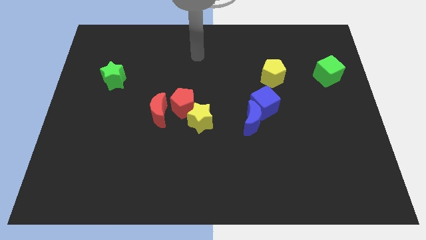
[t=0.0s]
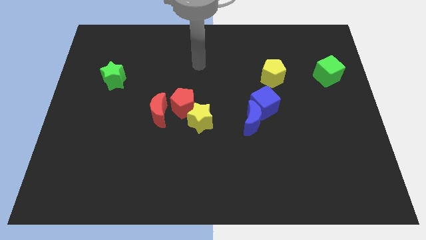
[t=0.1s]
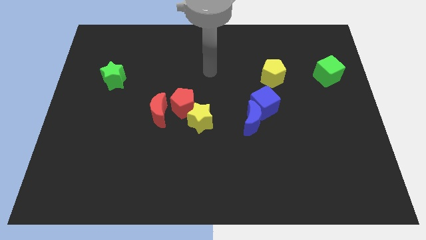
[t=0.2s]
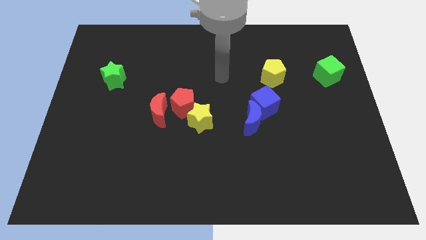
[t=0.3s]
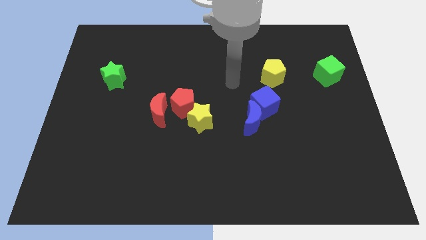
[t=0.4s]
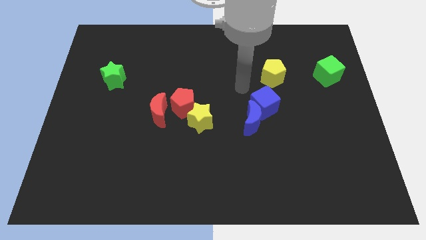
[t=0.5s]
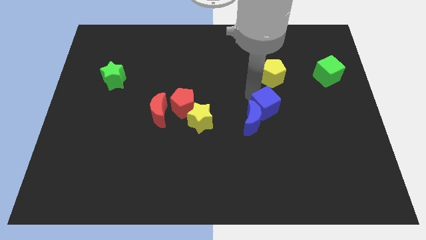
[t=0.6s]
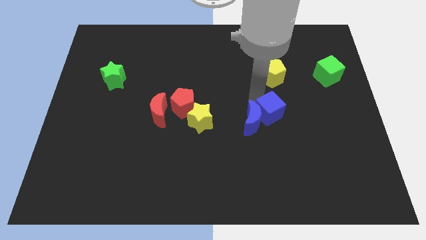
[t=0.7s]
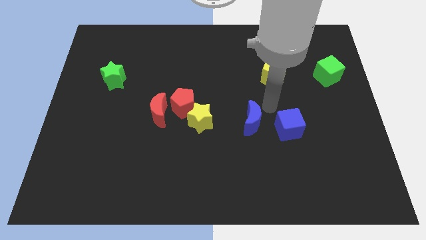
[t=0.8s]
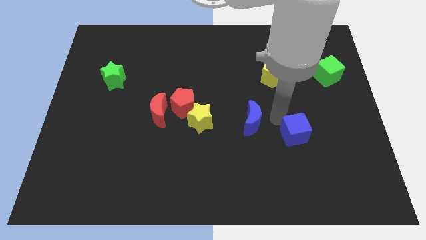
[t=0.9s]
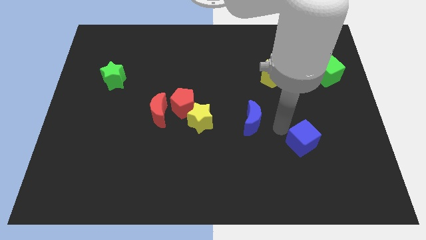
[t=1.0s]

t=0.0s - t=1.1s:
pull the blue moon apart from the blue cube

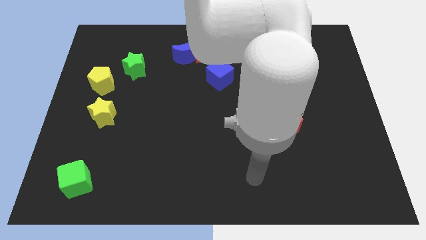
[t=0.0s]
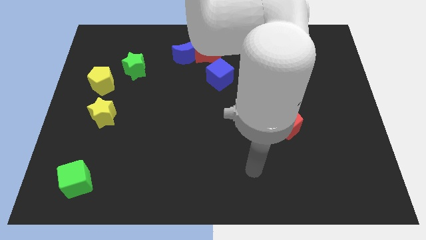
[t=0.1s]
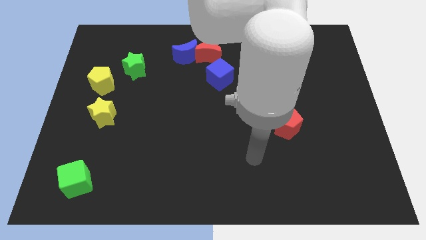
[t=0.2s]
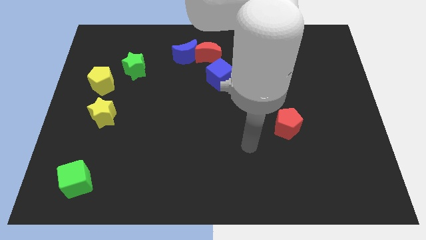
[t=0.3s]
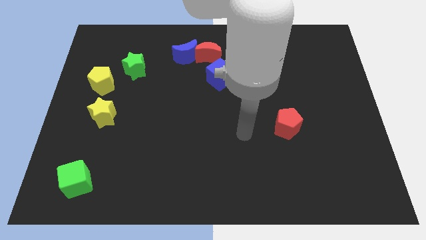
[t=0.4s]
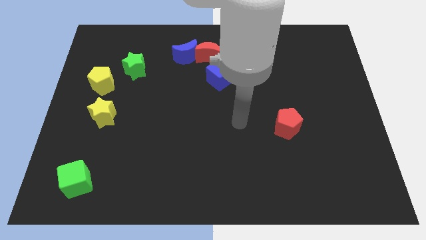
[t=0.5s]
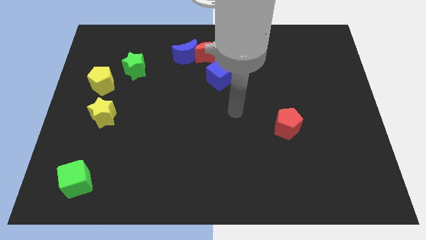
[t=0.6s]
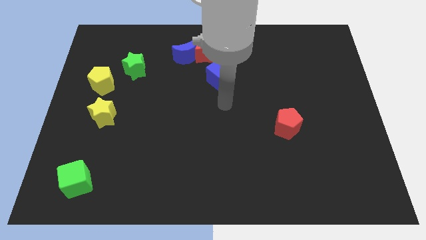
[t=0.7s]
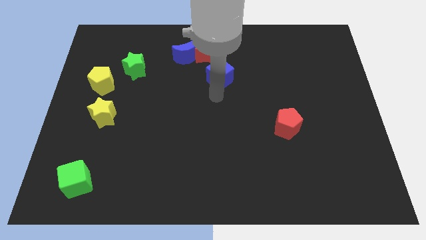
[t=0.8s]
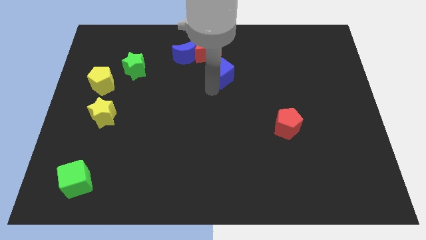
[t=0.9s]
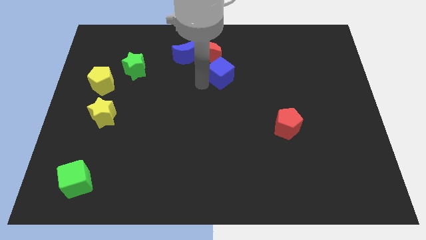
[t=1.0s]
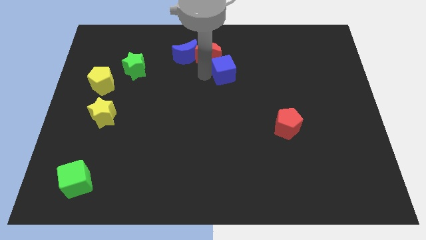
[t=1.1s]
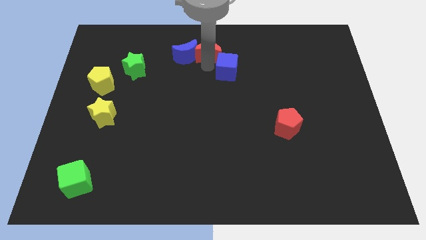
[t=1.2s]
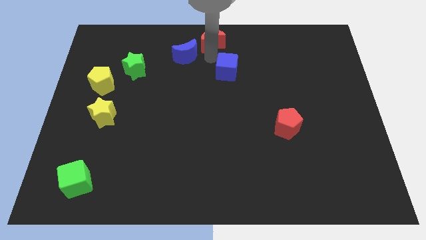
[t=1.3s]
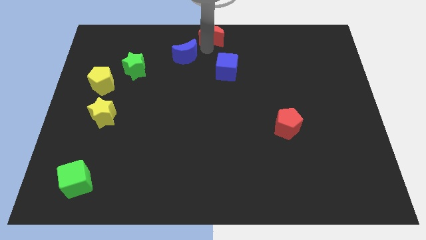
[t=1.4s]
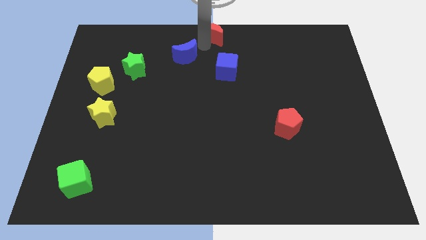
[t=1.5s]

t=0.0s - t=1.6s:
separate the blue moon from the red moon

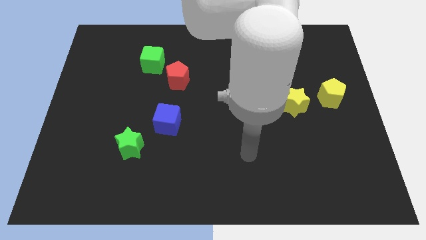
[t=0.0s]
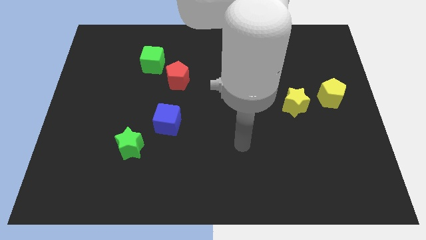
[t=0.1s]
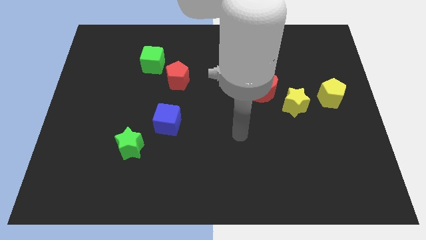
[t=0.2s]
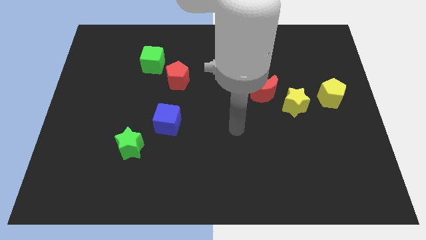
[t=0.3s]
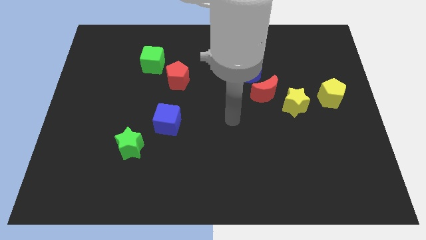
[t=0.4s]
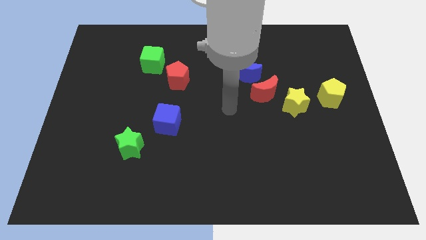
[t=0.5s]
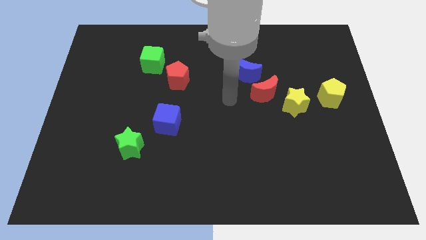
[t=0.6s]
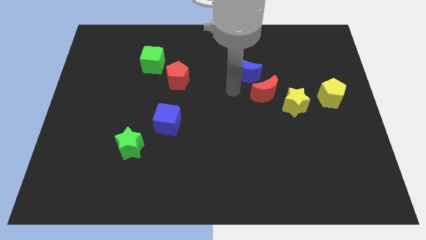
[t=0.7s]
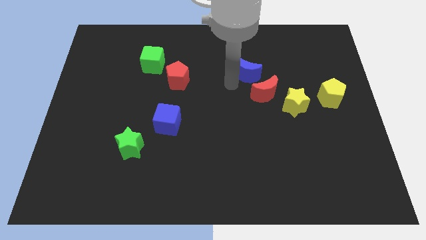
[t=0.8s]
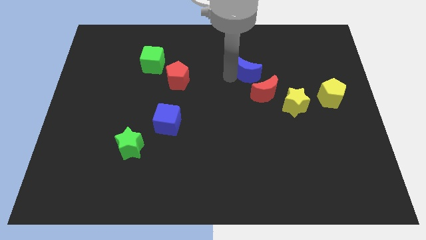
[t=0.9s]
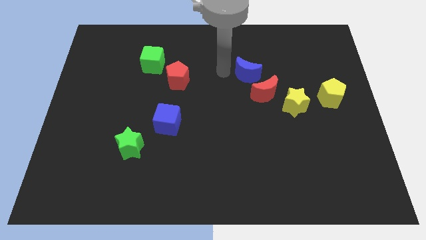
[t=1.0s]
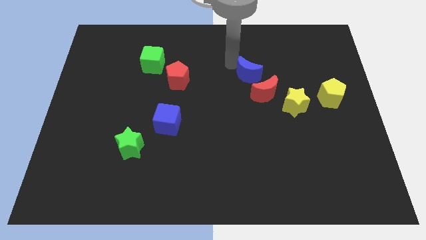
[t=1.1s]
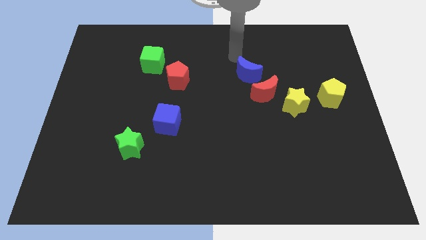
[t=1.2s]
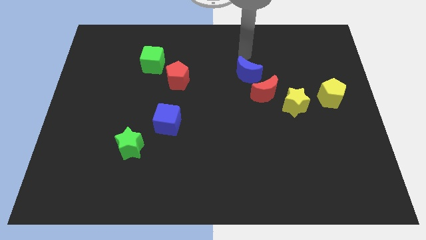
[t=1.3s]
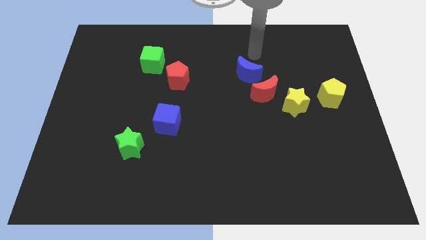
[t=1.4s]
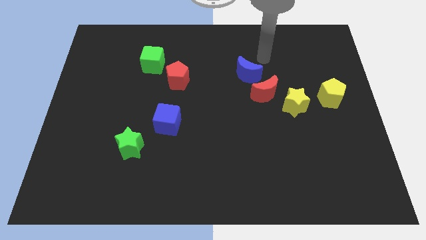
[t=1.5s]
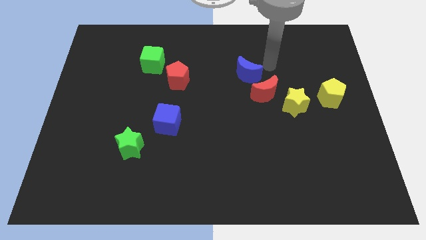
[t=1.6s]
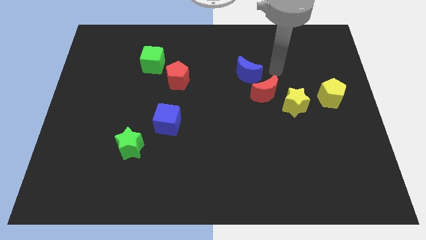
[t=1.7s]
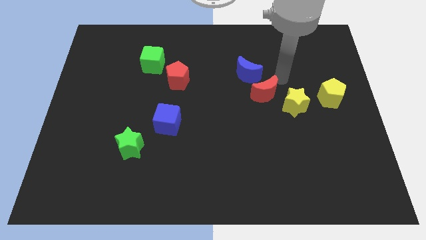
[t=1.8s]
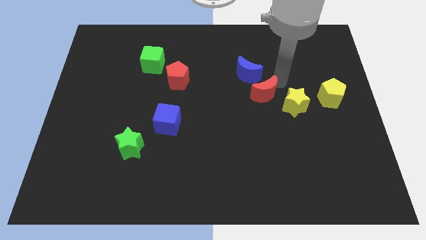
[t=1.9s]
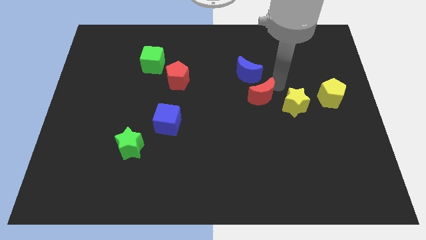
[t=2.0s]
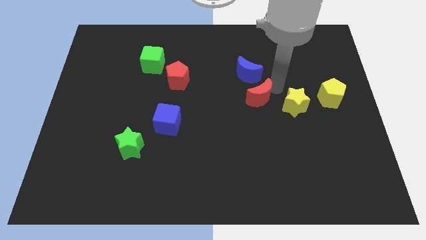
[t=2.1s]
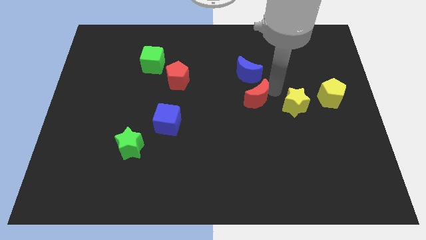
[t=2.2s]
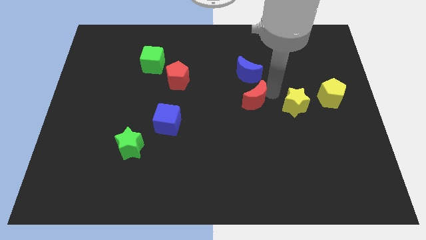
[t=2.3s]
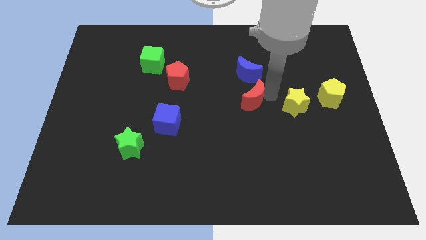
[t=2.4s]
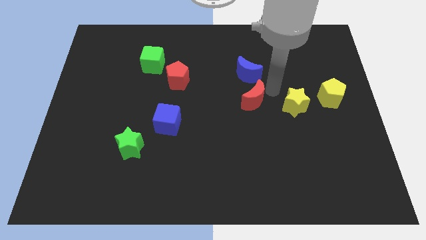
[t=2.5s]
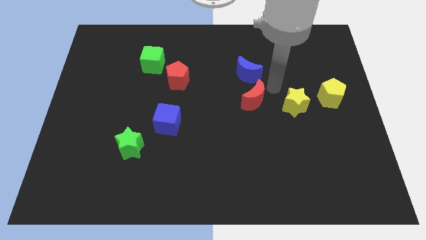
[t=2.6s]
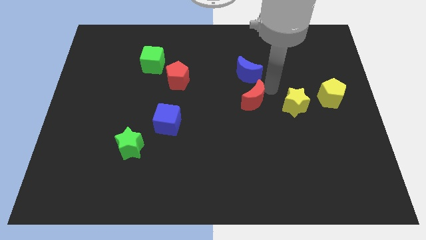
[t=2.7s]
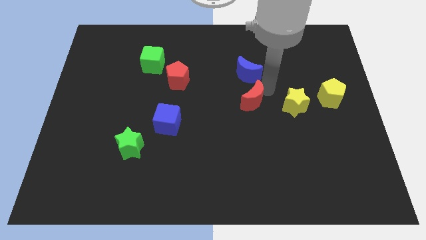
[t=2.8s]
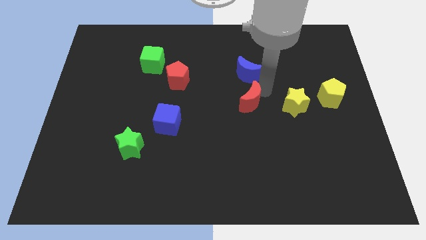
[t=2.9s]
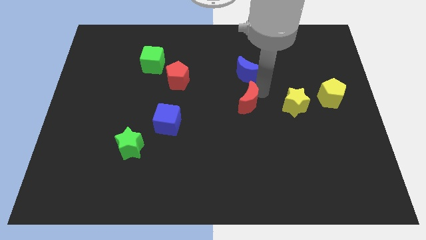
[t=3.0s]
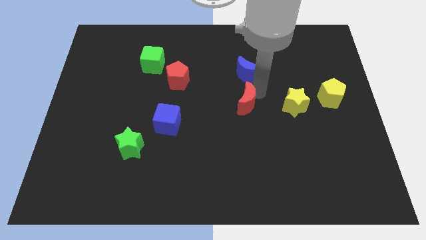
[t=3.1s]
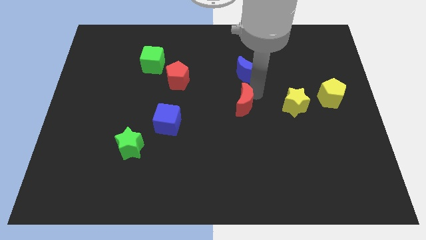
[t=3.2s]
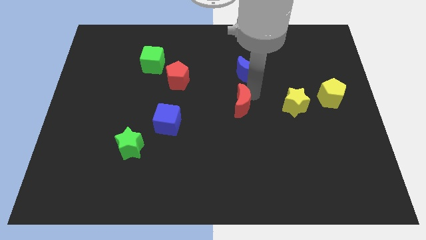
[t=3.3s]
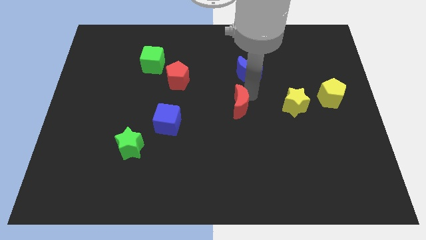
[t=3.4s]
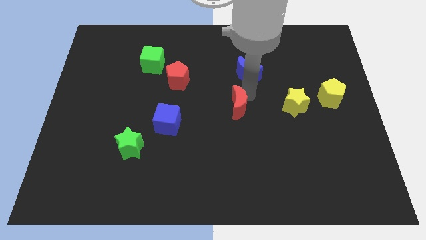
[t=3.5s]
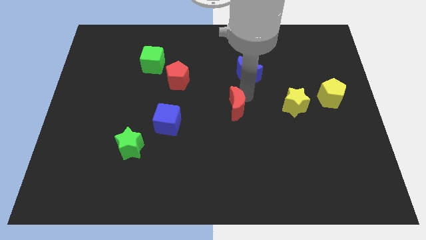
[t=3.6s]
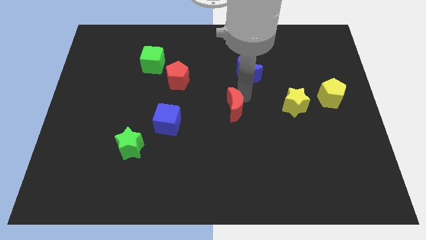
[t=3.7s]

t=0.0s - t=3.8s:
move the red moon away from the yellow star and blue moon

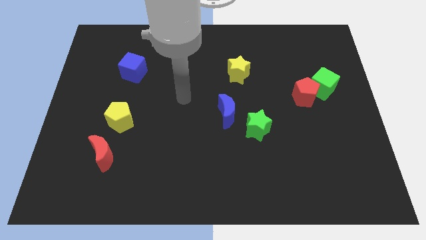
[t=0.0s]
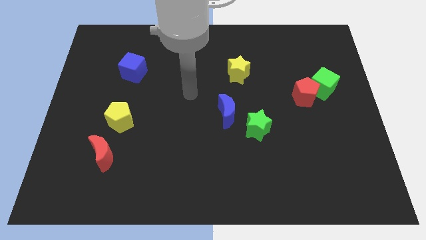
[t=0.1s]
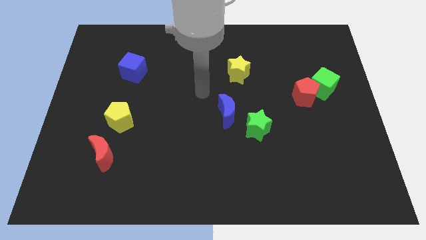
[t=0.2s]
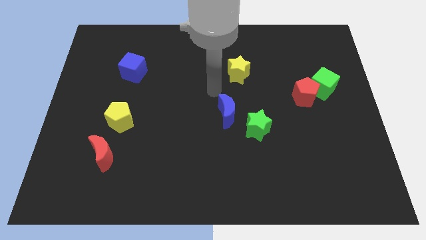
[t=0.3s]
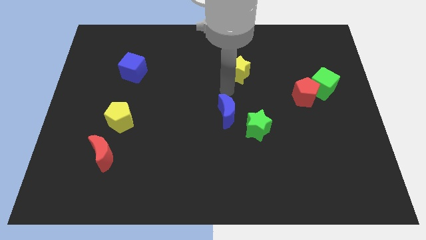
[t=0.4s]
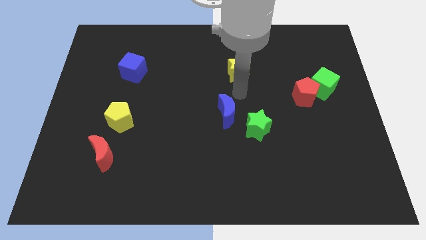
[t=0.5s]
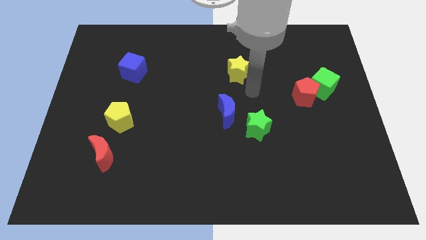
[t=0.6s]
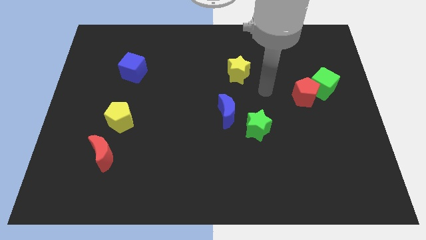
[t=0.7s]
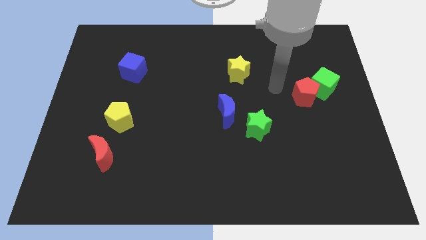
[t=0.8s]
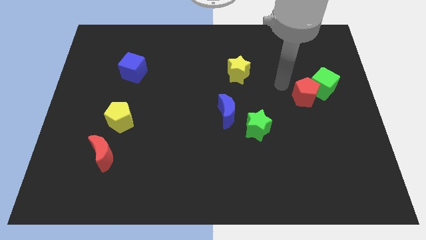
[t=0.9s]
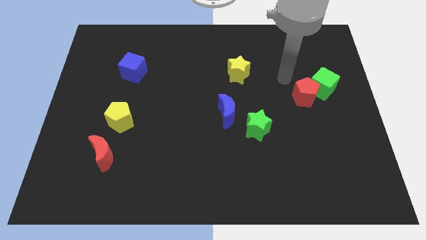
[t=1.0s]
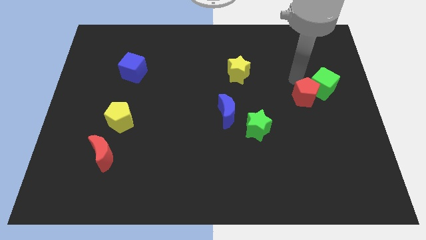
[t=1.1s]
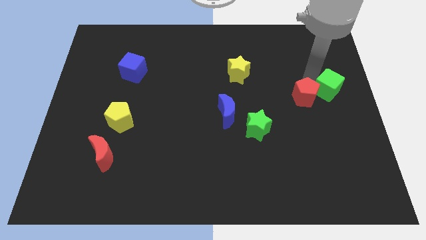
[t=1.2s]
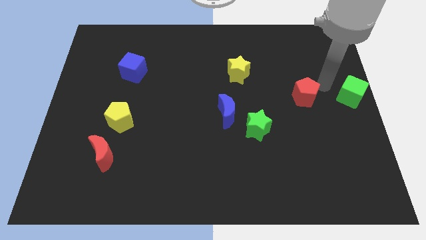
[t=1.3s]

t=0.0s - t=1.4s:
pull the red pentagon apart from the green cube

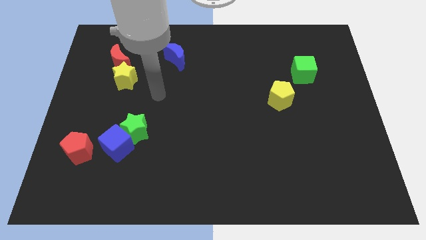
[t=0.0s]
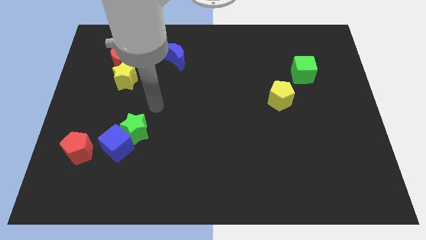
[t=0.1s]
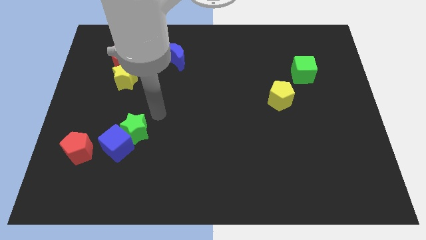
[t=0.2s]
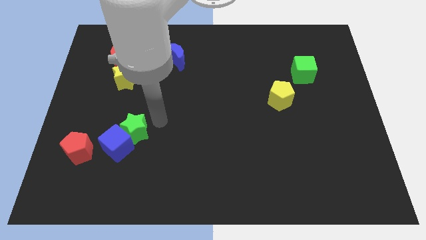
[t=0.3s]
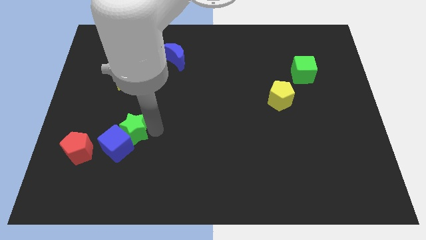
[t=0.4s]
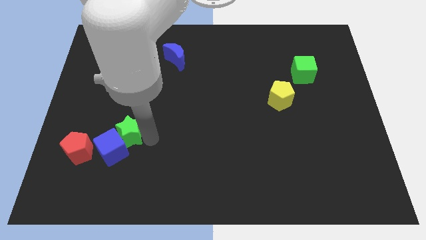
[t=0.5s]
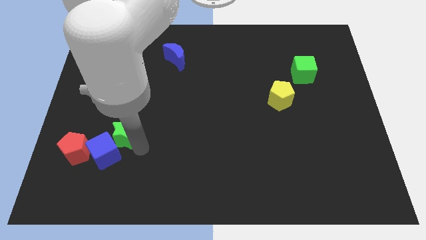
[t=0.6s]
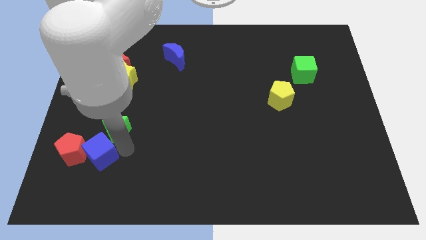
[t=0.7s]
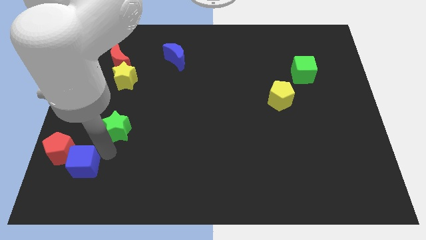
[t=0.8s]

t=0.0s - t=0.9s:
separate the green star from the blue cube

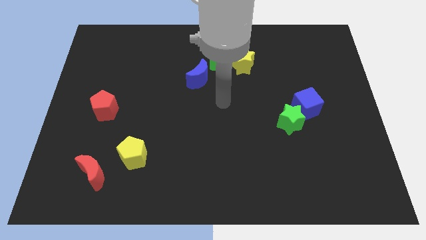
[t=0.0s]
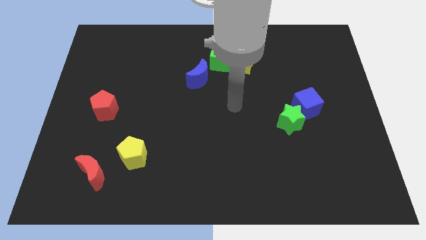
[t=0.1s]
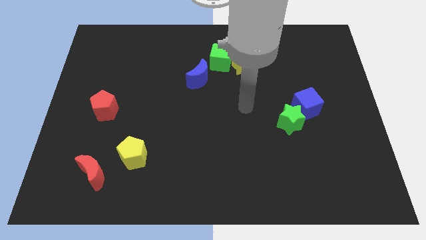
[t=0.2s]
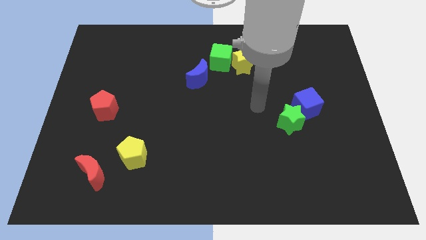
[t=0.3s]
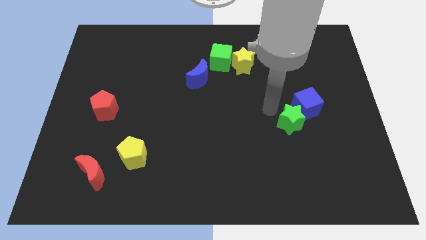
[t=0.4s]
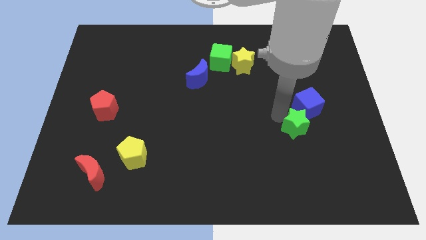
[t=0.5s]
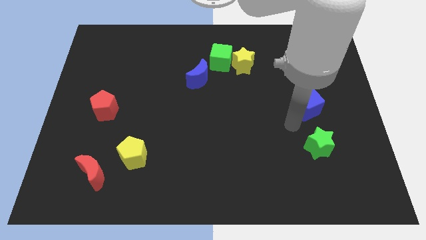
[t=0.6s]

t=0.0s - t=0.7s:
move the blue cube away from the green star
